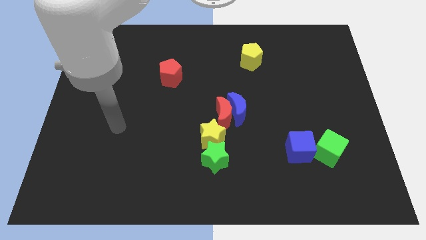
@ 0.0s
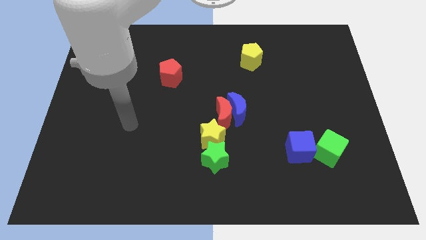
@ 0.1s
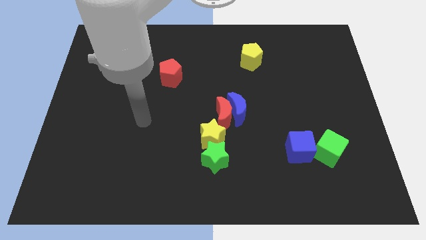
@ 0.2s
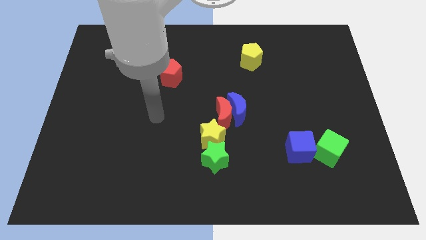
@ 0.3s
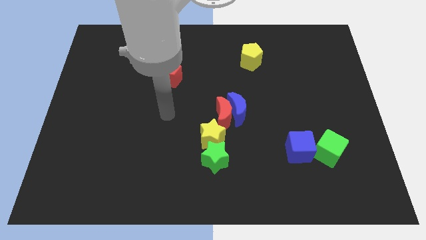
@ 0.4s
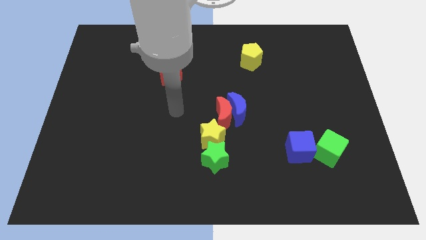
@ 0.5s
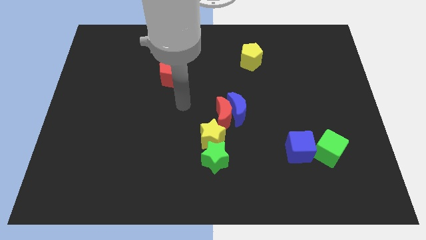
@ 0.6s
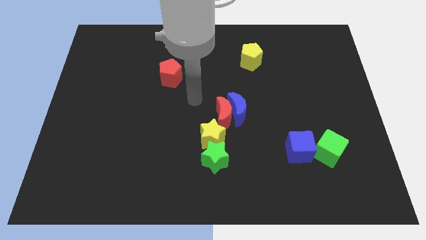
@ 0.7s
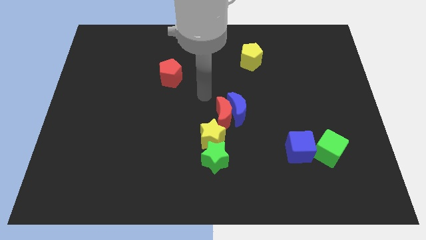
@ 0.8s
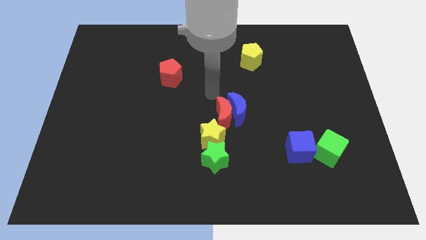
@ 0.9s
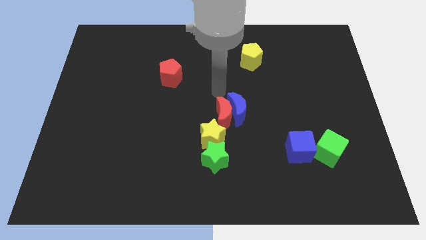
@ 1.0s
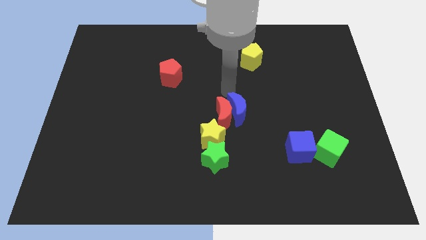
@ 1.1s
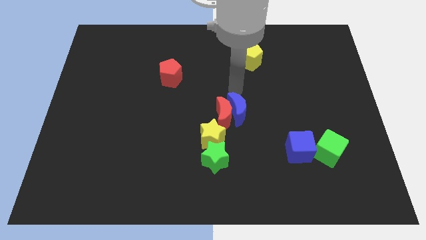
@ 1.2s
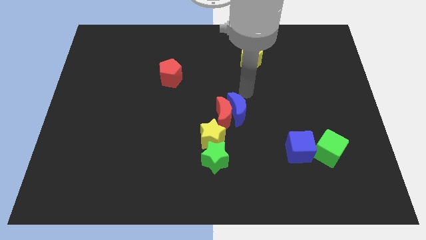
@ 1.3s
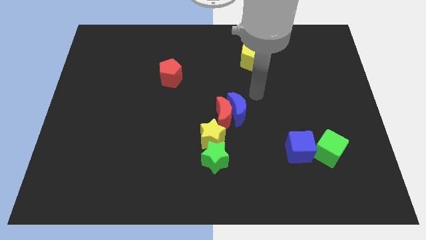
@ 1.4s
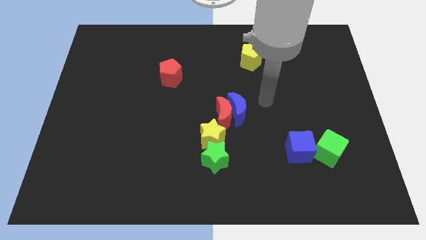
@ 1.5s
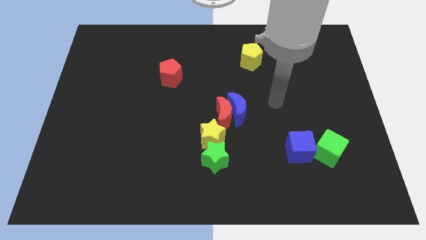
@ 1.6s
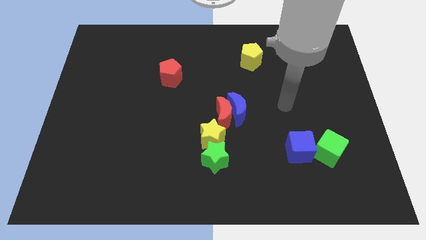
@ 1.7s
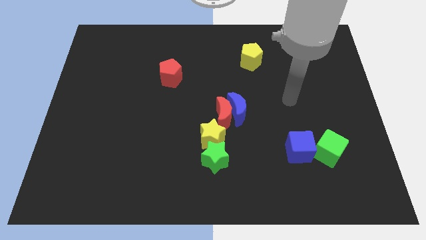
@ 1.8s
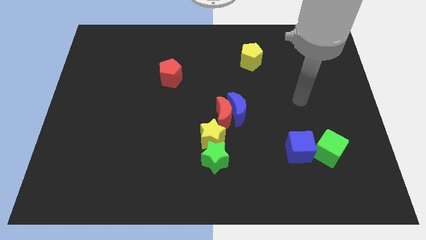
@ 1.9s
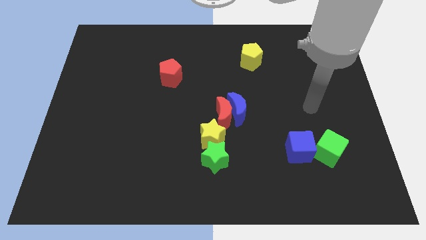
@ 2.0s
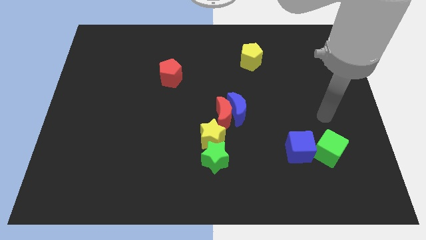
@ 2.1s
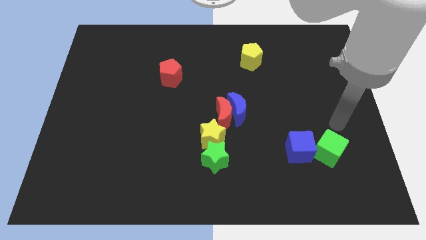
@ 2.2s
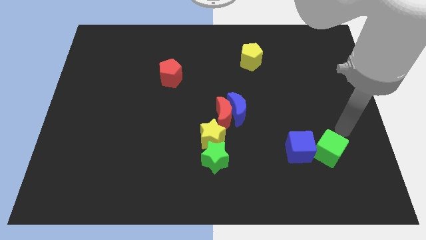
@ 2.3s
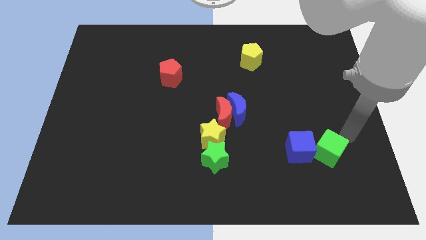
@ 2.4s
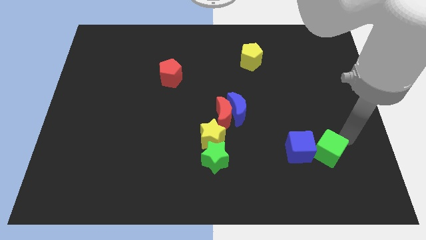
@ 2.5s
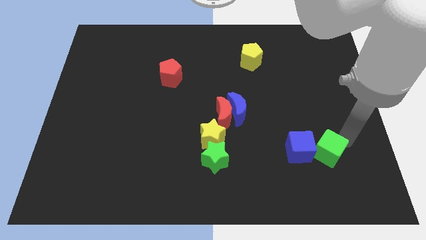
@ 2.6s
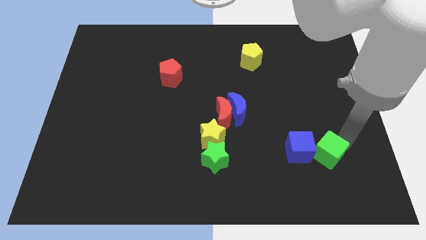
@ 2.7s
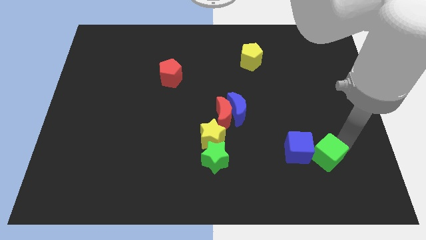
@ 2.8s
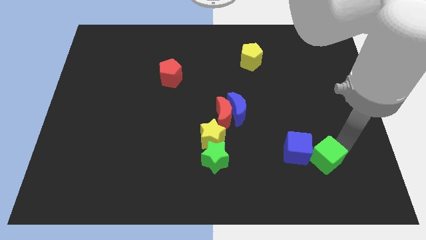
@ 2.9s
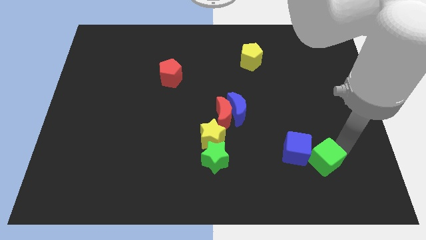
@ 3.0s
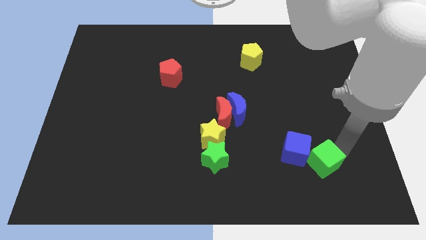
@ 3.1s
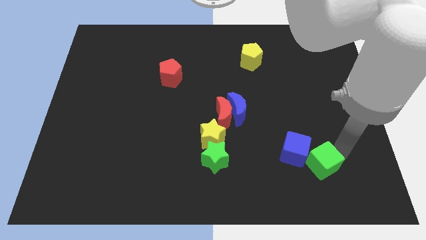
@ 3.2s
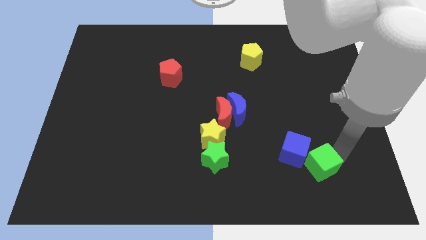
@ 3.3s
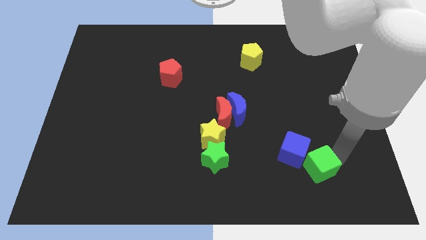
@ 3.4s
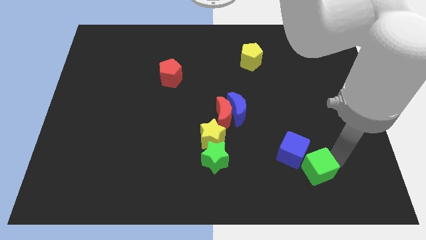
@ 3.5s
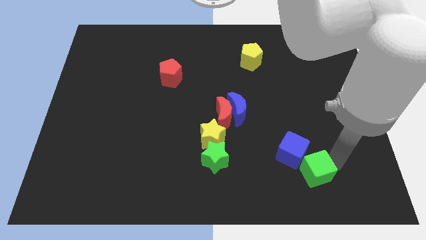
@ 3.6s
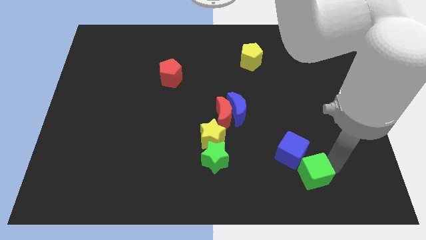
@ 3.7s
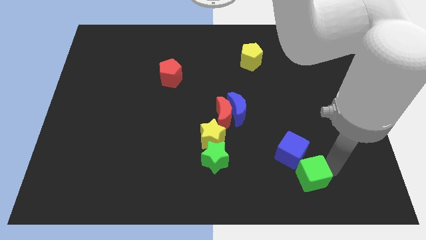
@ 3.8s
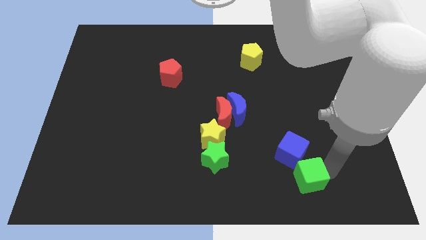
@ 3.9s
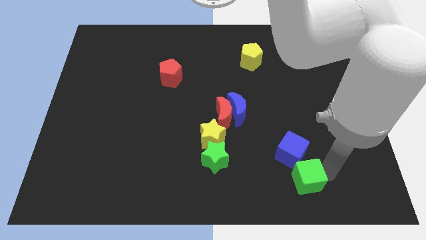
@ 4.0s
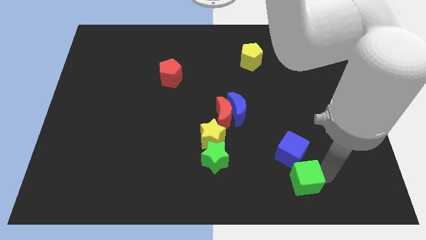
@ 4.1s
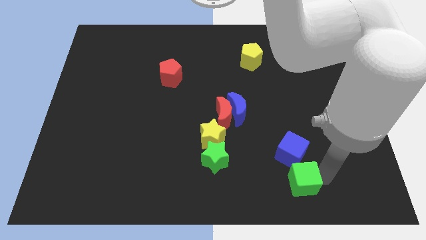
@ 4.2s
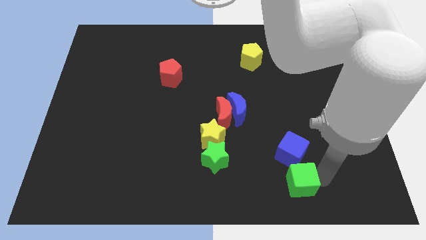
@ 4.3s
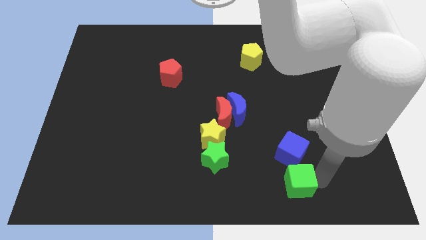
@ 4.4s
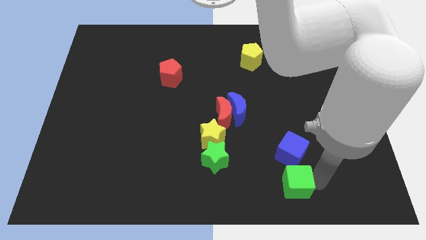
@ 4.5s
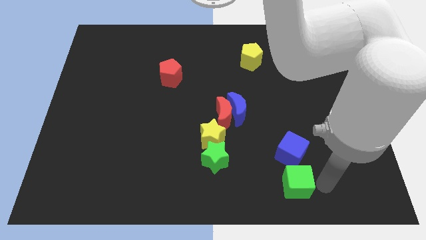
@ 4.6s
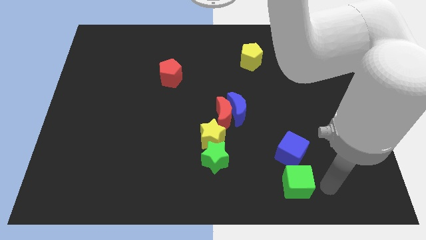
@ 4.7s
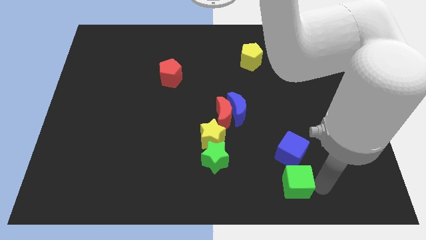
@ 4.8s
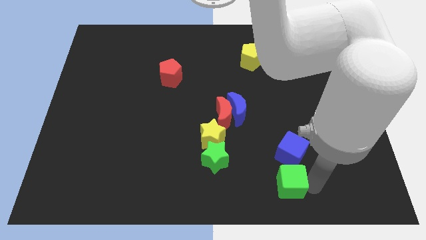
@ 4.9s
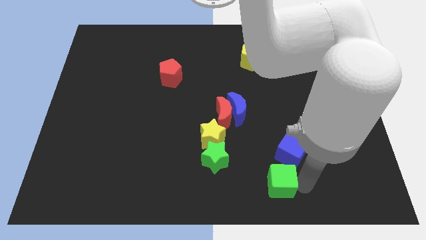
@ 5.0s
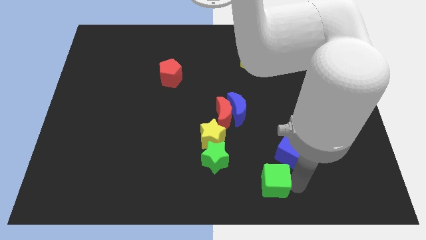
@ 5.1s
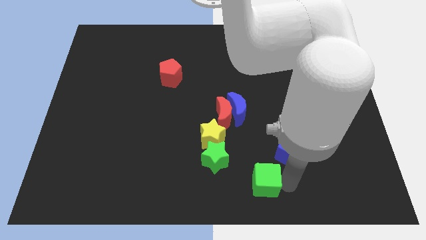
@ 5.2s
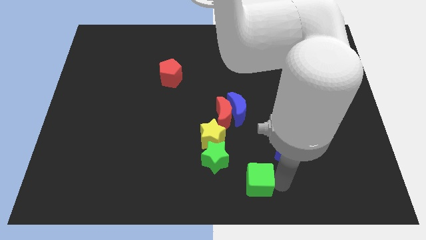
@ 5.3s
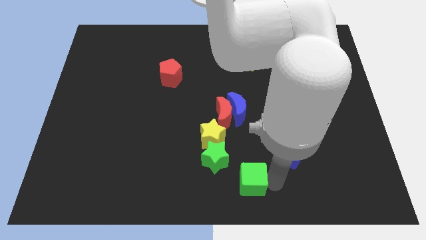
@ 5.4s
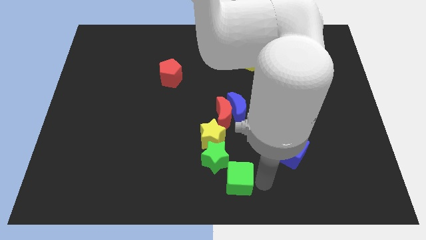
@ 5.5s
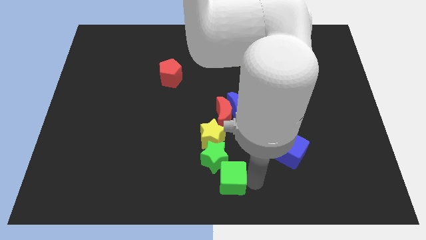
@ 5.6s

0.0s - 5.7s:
slide the green cube below the yellow star

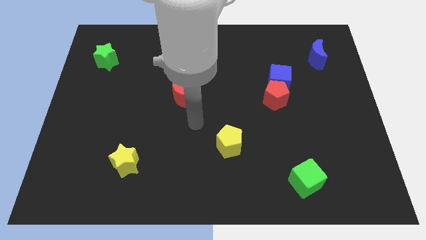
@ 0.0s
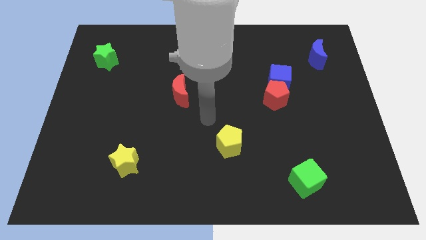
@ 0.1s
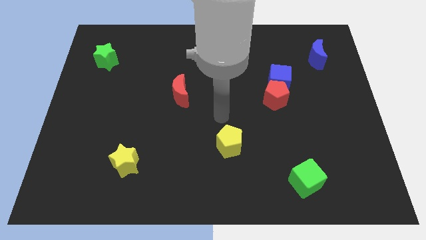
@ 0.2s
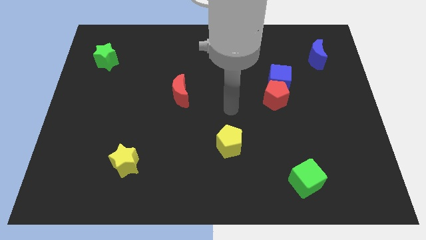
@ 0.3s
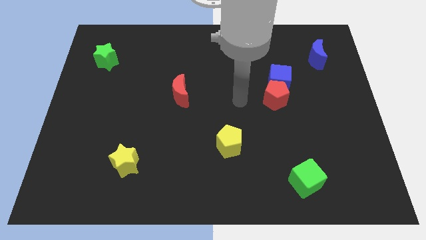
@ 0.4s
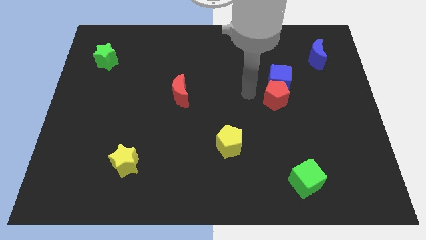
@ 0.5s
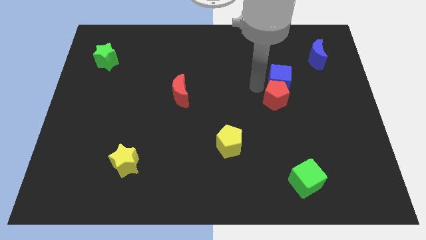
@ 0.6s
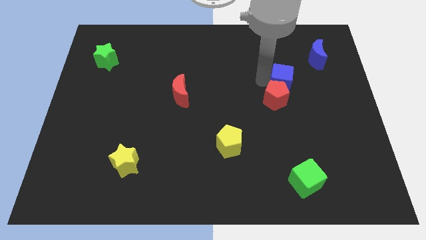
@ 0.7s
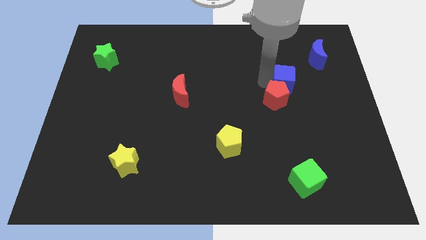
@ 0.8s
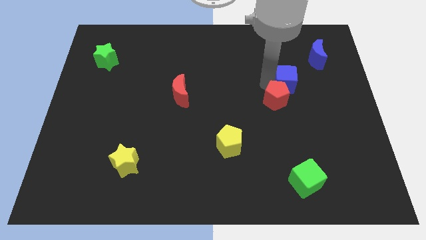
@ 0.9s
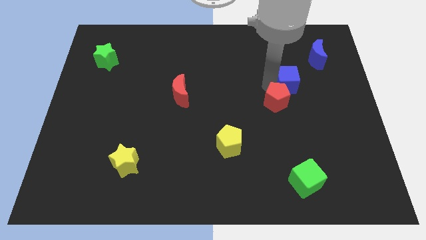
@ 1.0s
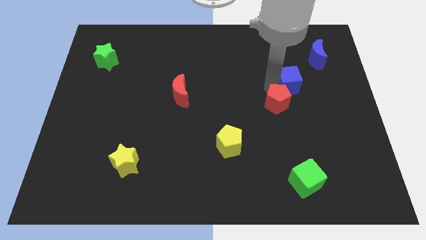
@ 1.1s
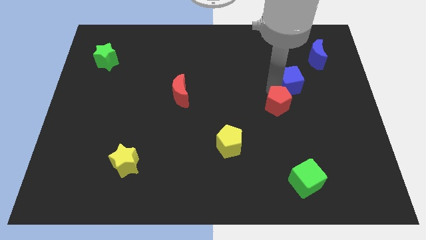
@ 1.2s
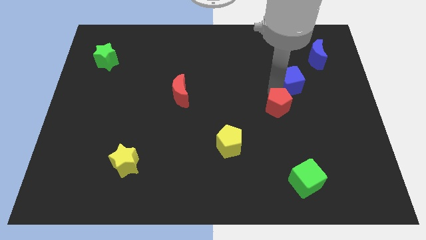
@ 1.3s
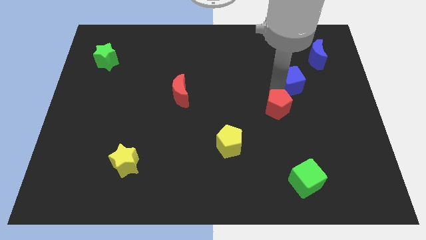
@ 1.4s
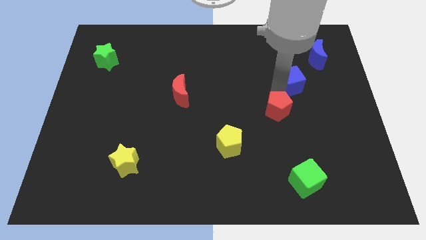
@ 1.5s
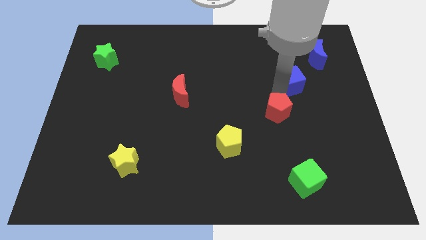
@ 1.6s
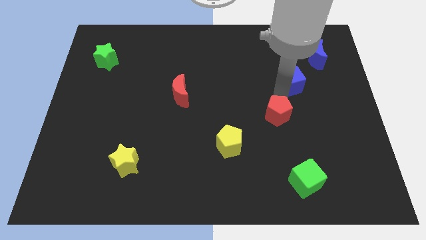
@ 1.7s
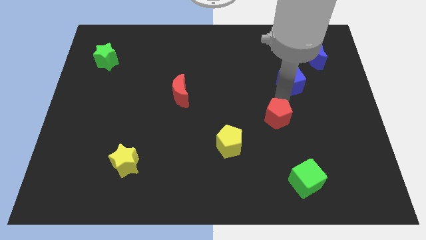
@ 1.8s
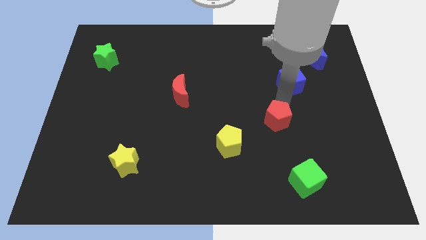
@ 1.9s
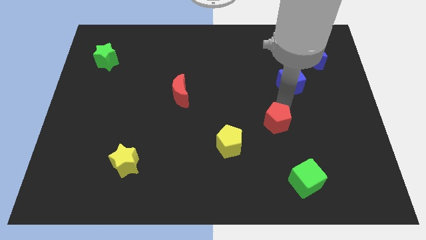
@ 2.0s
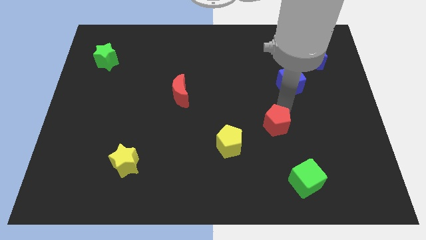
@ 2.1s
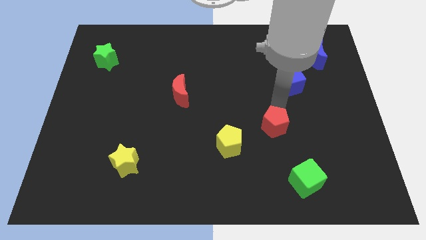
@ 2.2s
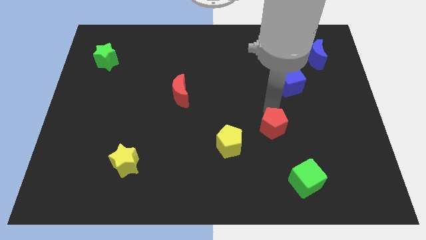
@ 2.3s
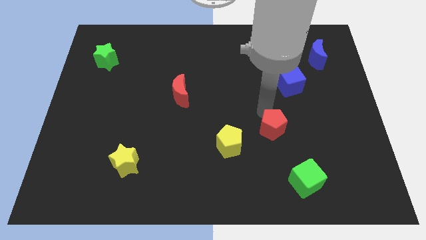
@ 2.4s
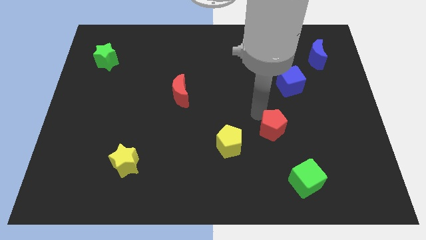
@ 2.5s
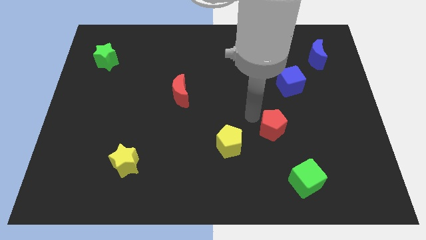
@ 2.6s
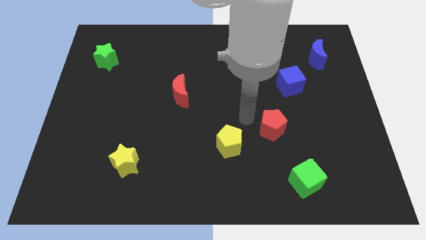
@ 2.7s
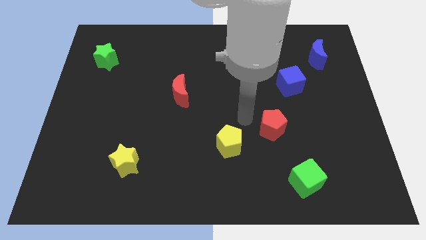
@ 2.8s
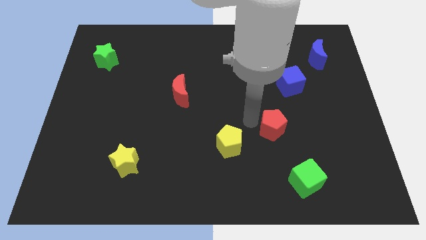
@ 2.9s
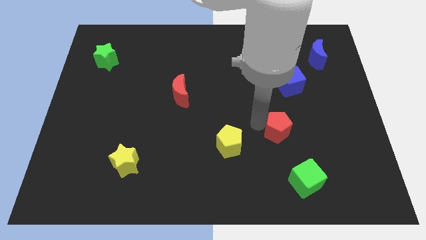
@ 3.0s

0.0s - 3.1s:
move the red pentagon to the top side of the green cube
